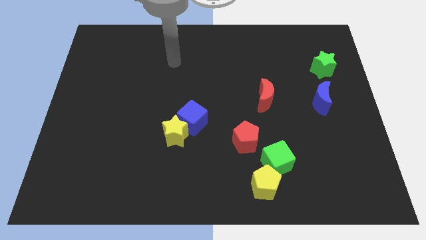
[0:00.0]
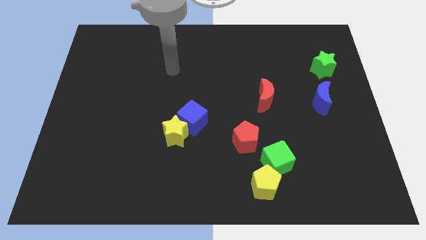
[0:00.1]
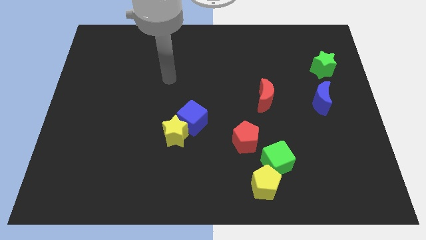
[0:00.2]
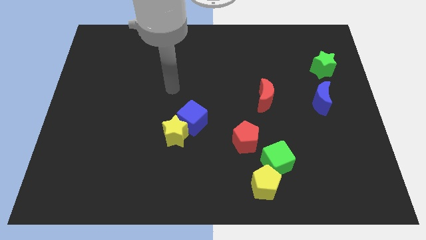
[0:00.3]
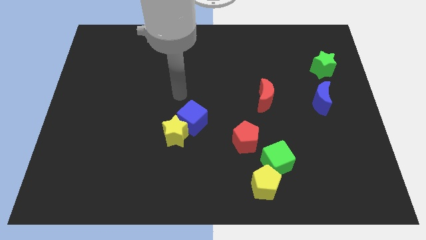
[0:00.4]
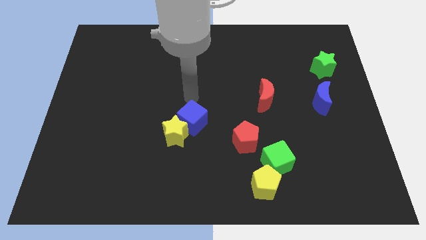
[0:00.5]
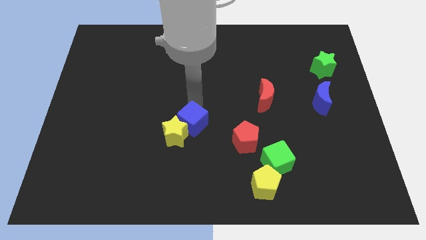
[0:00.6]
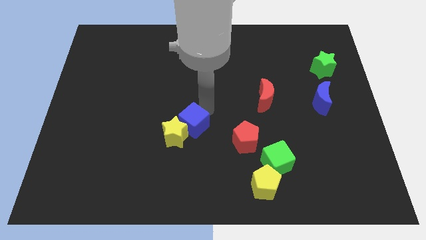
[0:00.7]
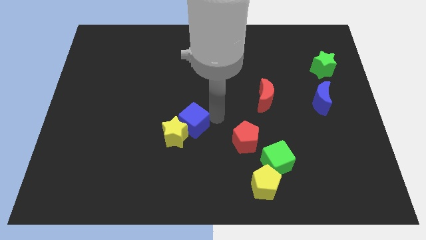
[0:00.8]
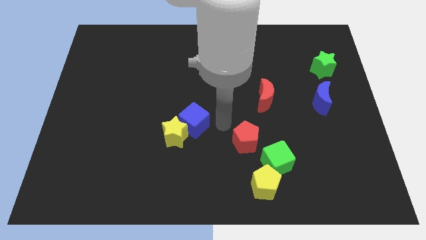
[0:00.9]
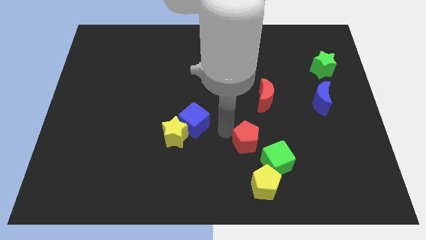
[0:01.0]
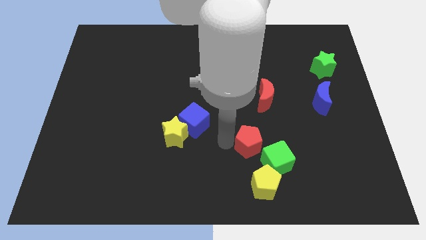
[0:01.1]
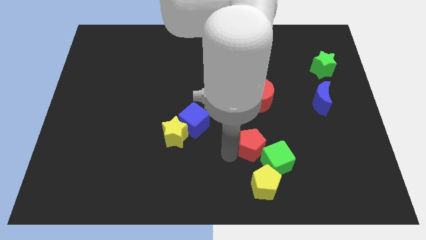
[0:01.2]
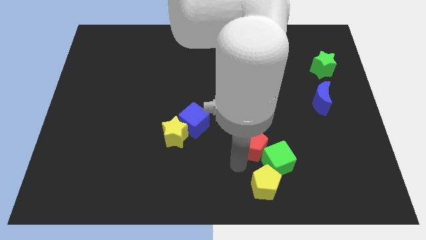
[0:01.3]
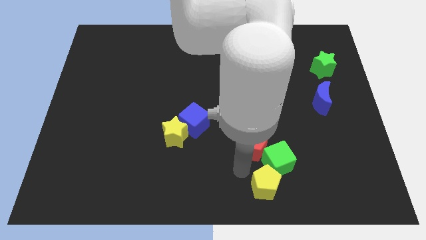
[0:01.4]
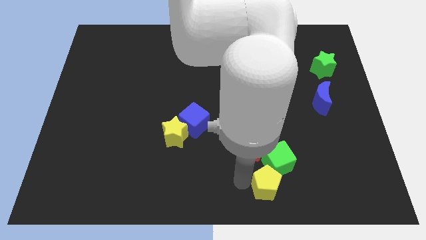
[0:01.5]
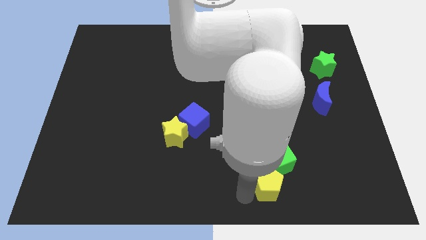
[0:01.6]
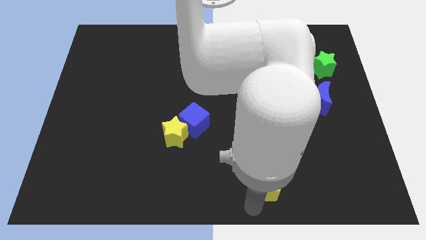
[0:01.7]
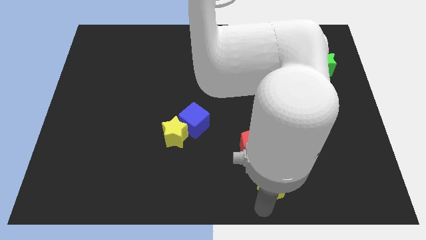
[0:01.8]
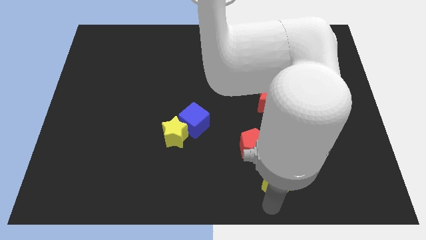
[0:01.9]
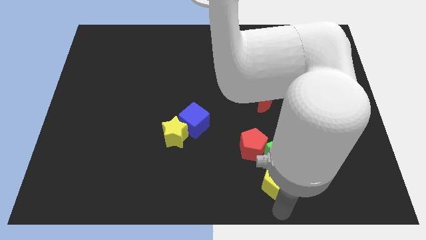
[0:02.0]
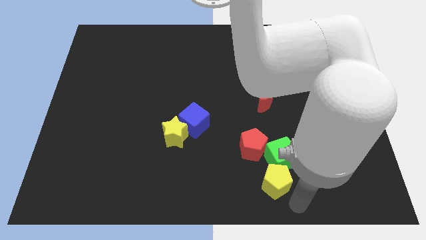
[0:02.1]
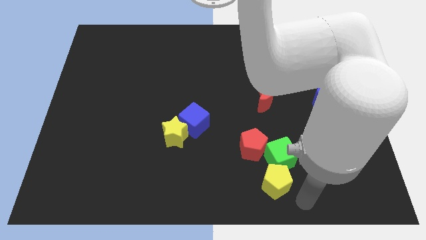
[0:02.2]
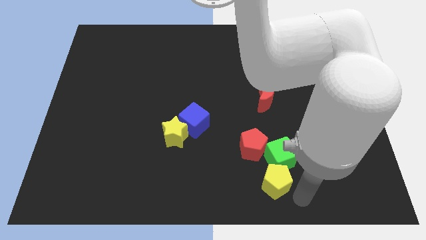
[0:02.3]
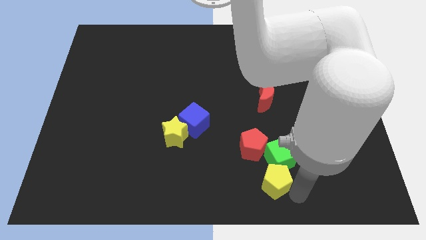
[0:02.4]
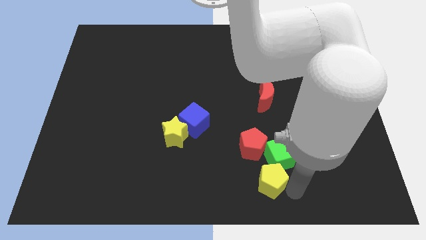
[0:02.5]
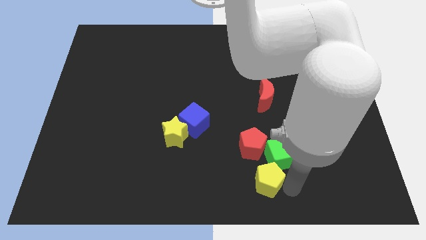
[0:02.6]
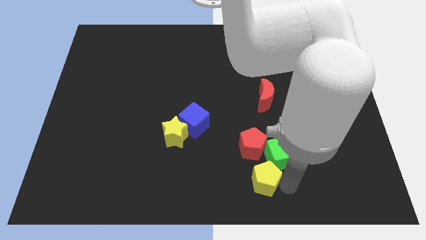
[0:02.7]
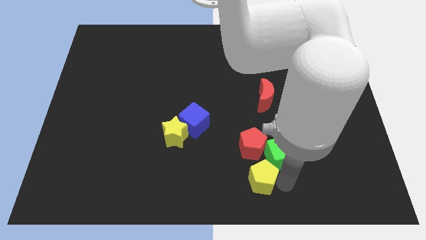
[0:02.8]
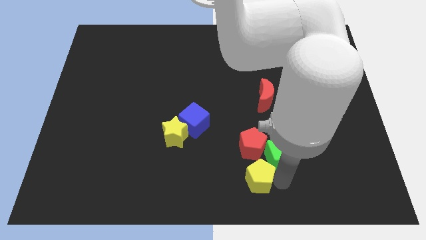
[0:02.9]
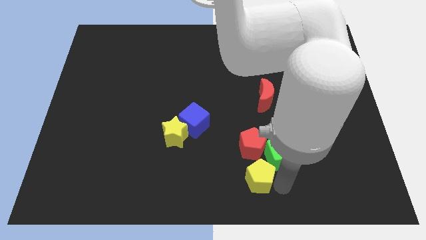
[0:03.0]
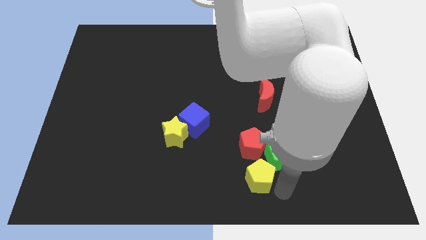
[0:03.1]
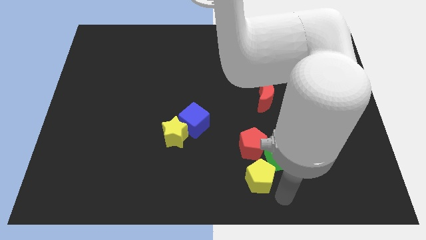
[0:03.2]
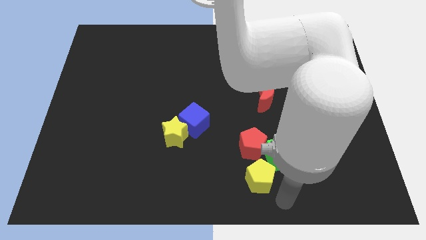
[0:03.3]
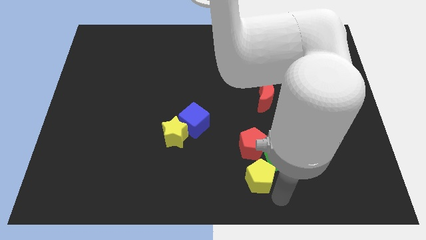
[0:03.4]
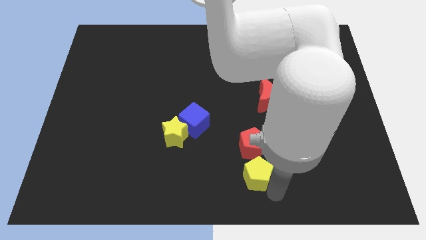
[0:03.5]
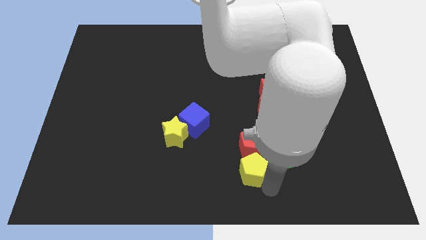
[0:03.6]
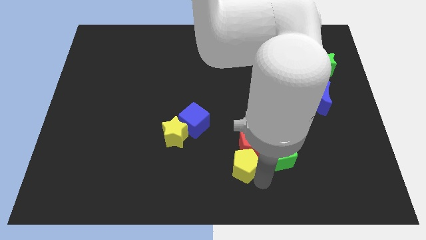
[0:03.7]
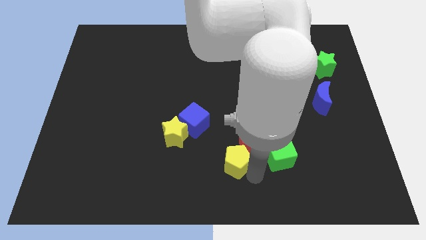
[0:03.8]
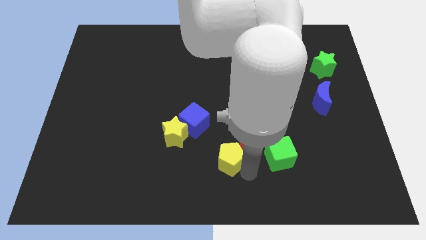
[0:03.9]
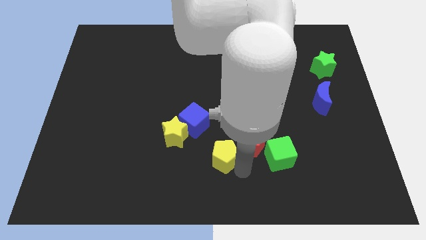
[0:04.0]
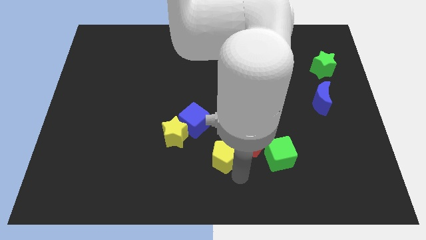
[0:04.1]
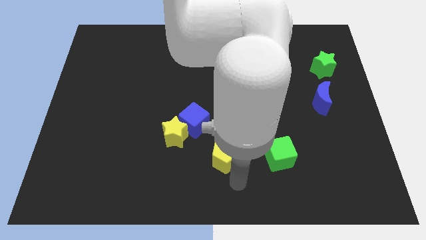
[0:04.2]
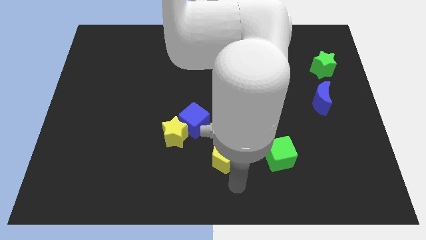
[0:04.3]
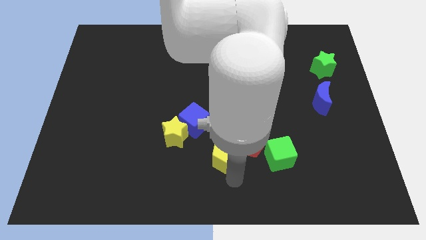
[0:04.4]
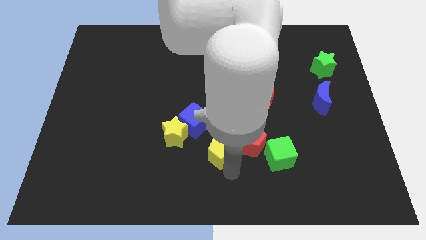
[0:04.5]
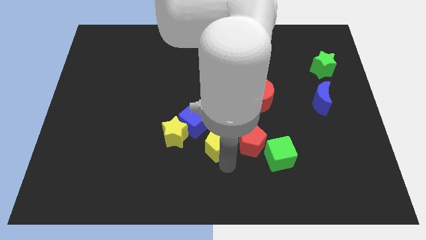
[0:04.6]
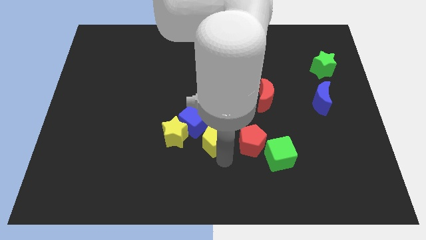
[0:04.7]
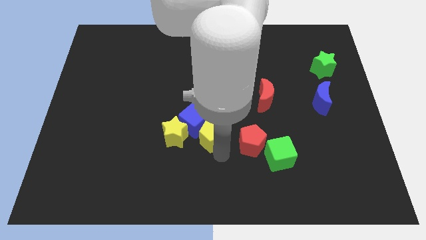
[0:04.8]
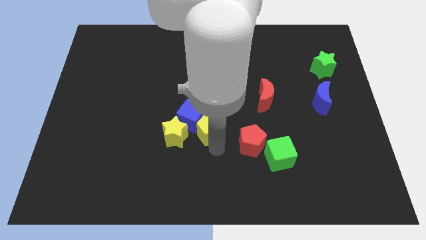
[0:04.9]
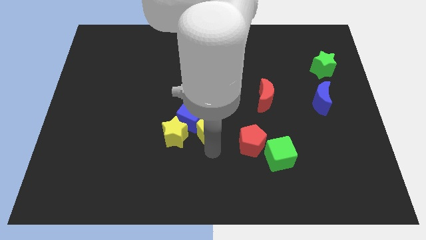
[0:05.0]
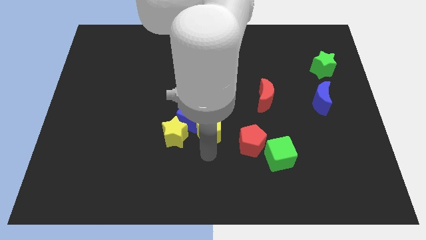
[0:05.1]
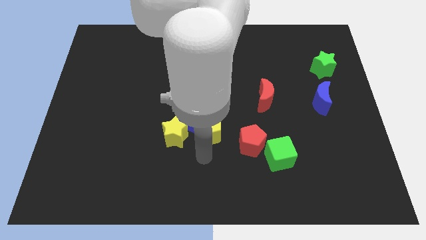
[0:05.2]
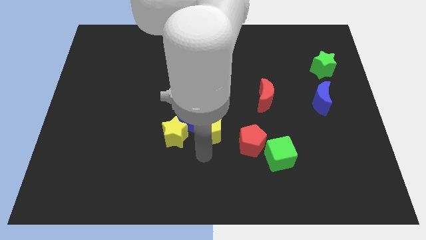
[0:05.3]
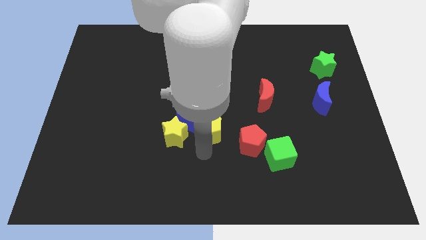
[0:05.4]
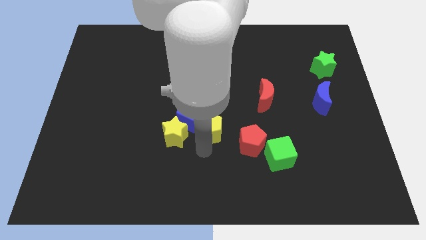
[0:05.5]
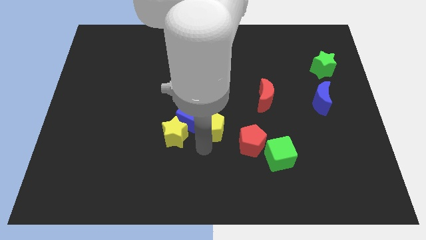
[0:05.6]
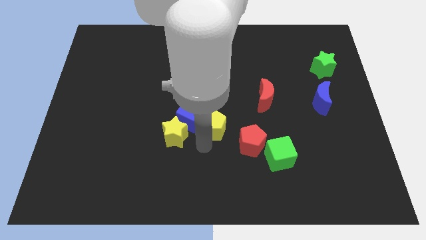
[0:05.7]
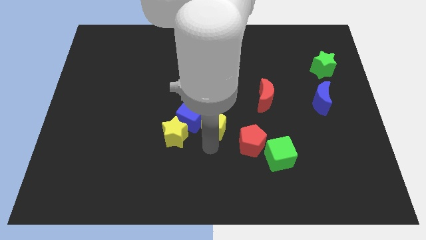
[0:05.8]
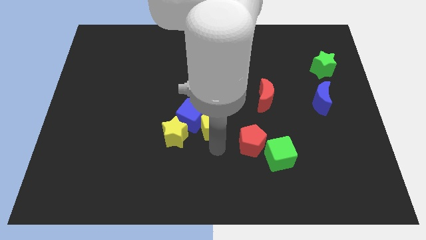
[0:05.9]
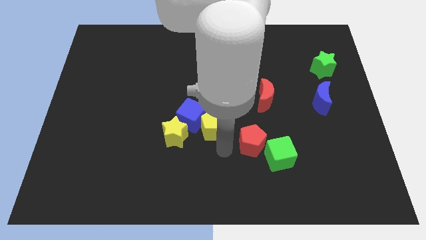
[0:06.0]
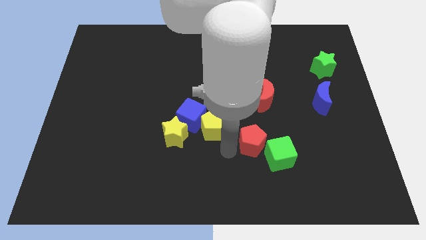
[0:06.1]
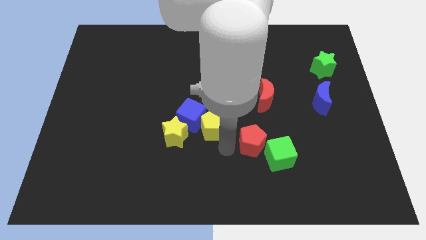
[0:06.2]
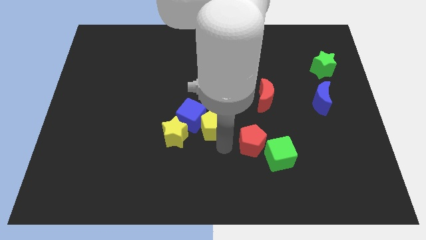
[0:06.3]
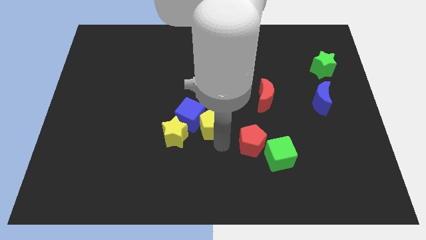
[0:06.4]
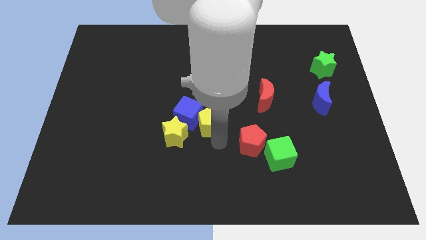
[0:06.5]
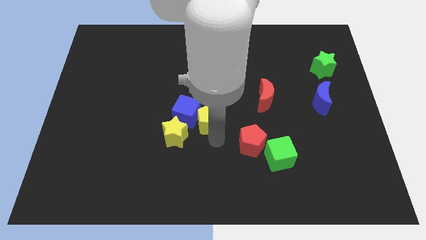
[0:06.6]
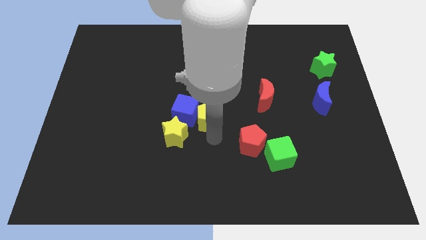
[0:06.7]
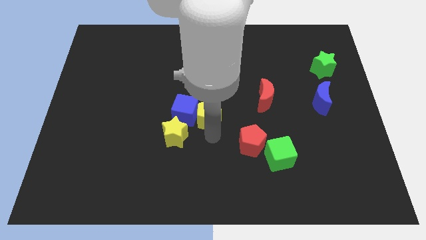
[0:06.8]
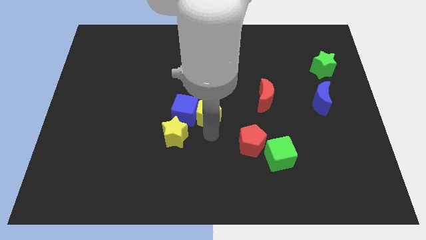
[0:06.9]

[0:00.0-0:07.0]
move the yellow pentagon upwards and left diagonally

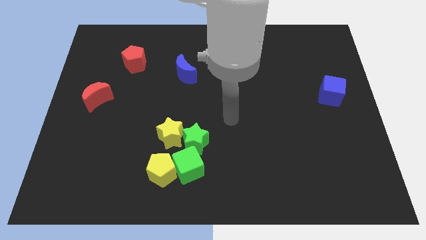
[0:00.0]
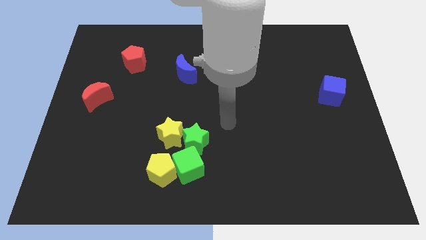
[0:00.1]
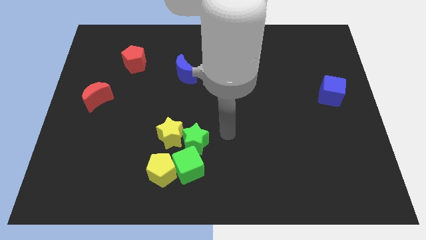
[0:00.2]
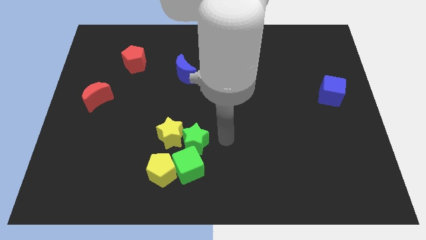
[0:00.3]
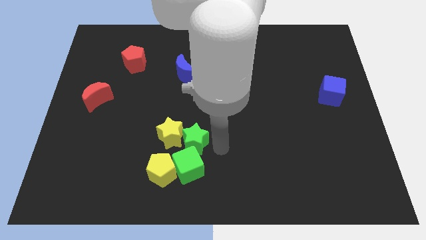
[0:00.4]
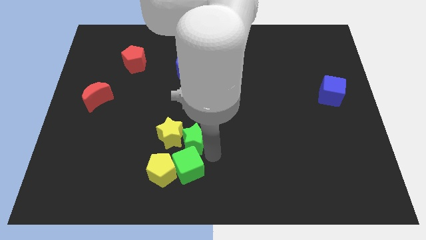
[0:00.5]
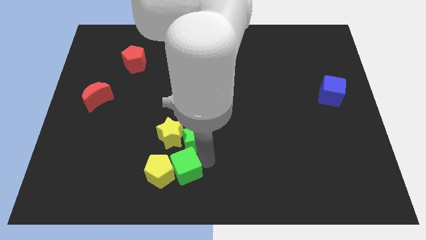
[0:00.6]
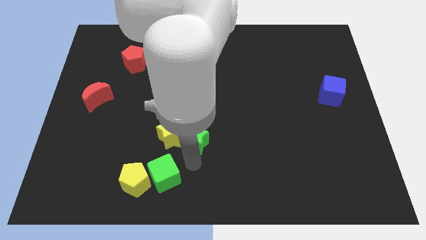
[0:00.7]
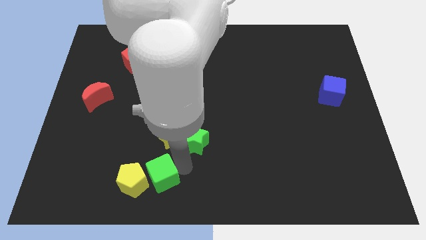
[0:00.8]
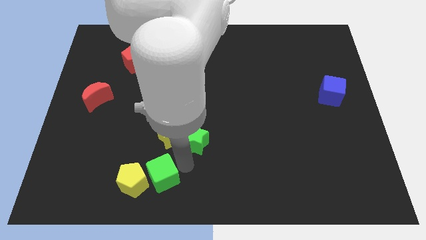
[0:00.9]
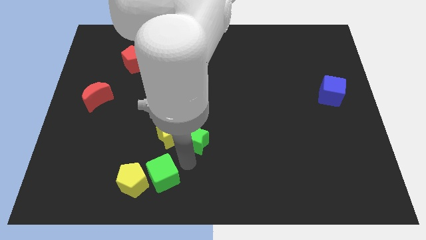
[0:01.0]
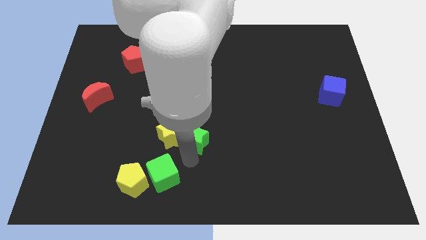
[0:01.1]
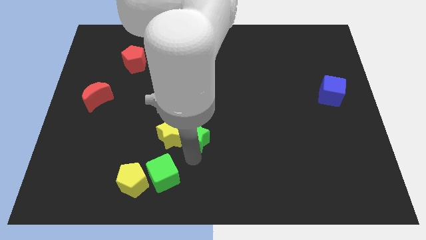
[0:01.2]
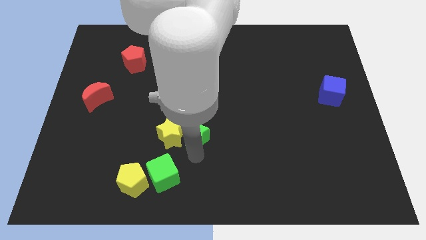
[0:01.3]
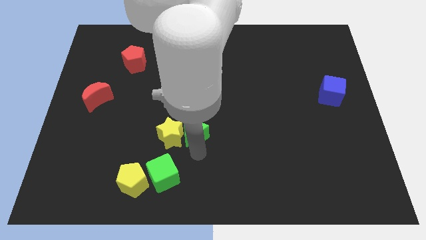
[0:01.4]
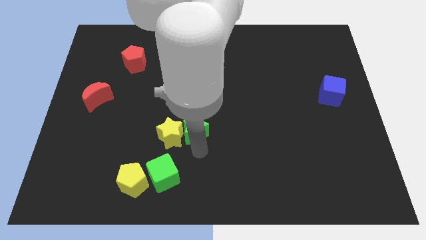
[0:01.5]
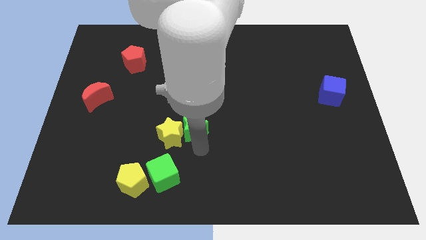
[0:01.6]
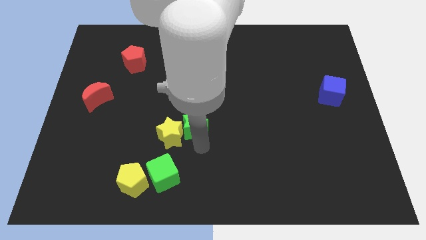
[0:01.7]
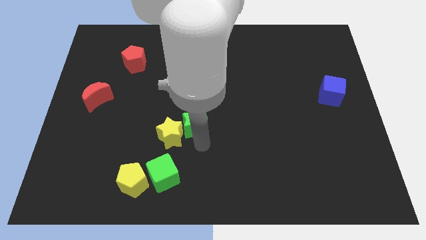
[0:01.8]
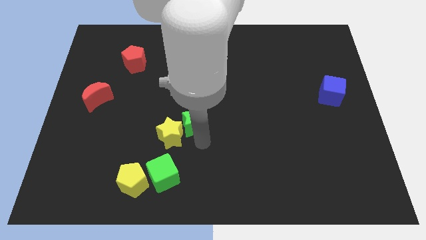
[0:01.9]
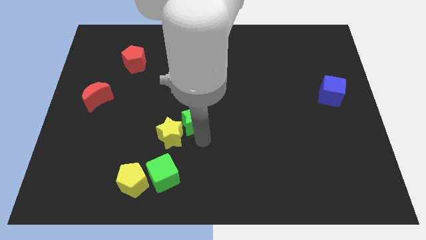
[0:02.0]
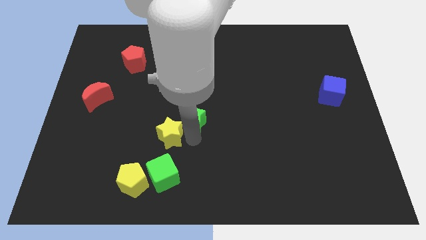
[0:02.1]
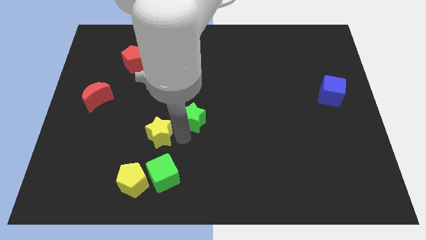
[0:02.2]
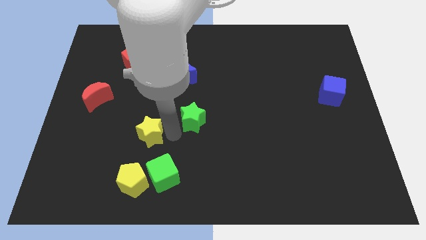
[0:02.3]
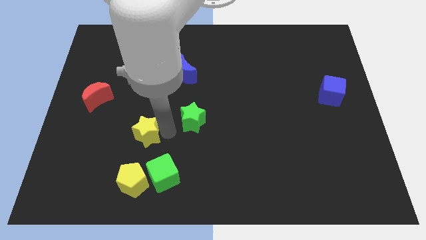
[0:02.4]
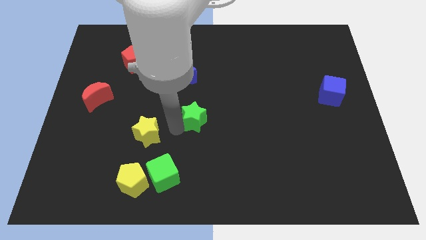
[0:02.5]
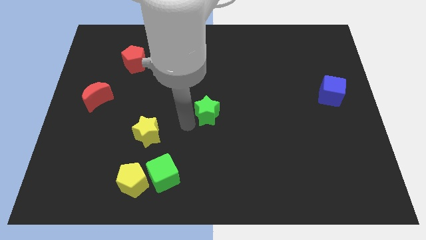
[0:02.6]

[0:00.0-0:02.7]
slide the green star upwards and to the right a little
